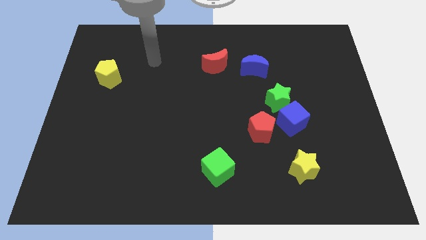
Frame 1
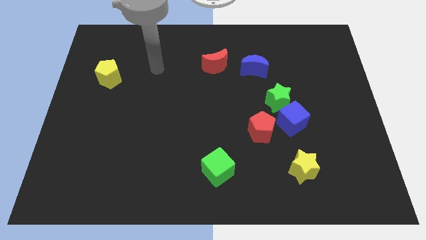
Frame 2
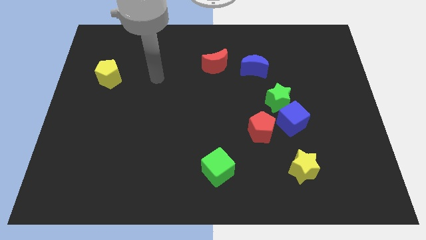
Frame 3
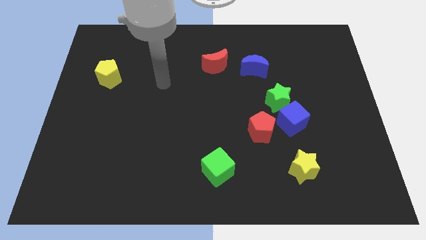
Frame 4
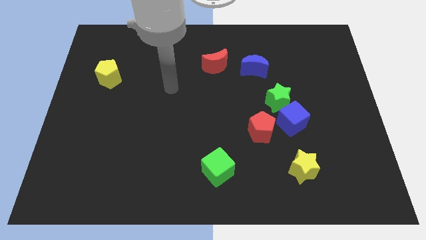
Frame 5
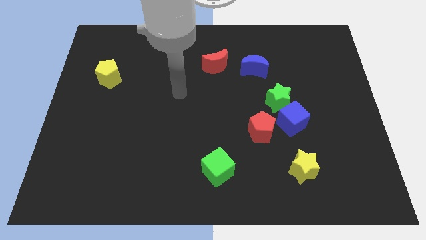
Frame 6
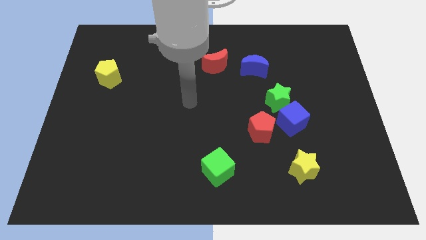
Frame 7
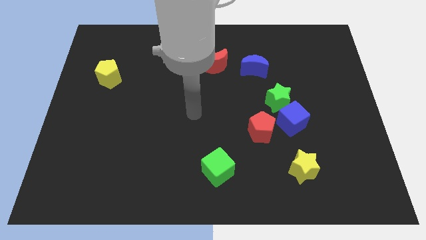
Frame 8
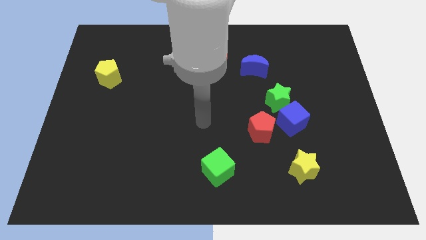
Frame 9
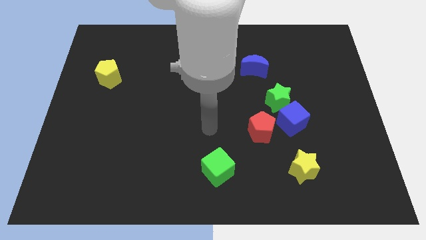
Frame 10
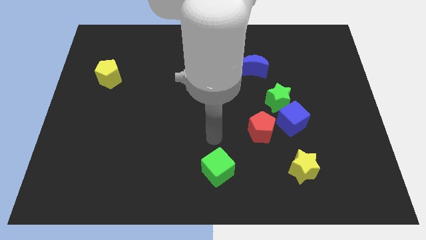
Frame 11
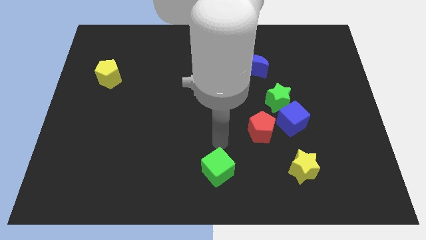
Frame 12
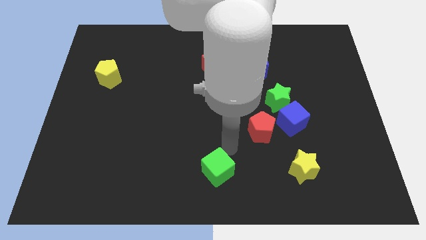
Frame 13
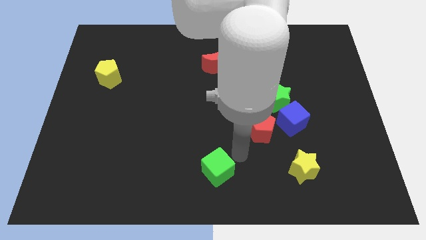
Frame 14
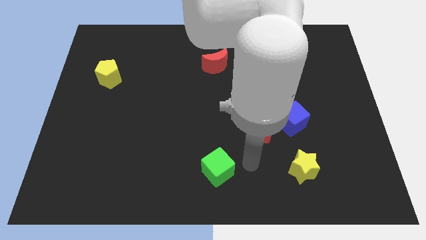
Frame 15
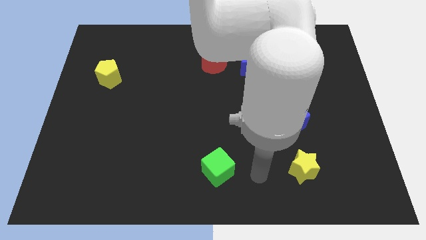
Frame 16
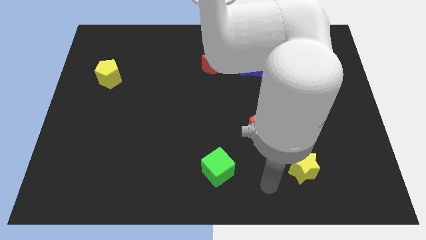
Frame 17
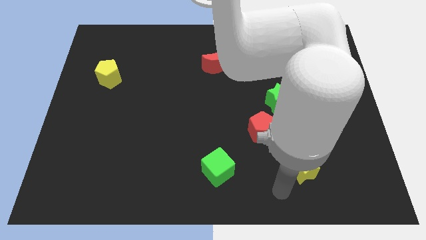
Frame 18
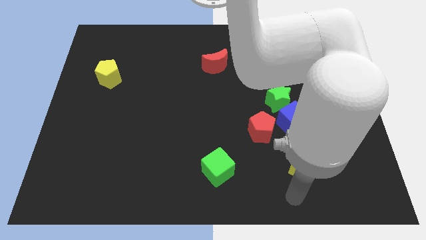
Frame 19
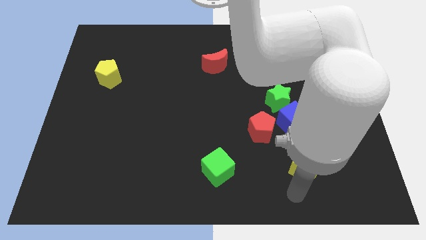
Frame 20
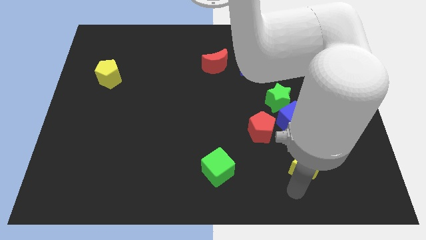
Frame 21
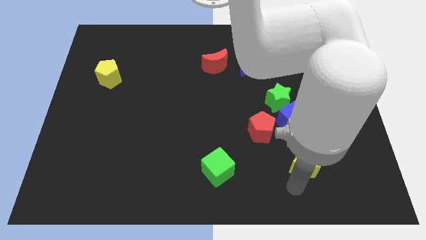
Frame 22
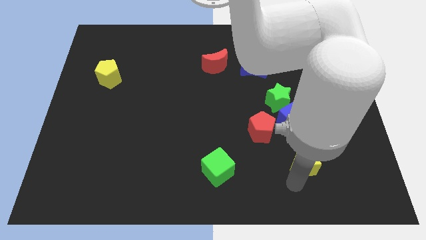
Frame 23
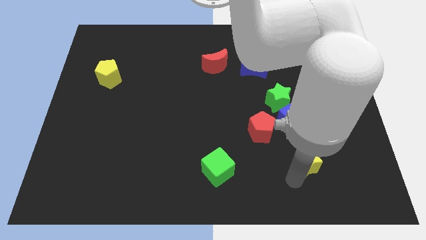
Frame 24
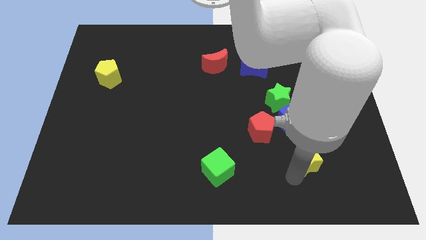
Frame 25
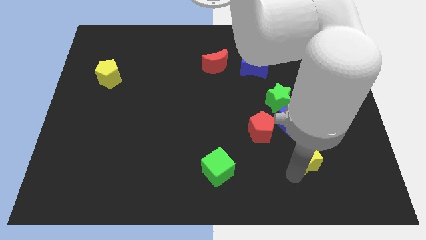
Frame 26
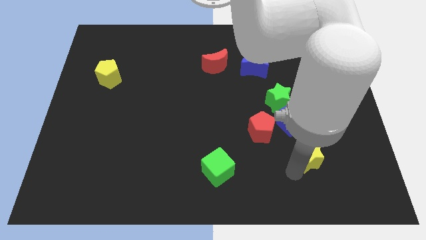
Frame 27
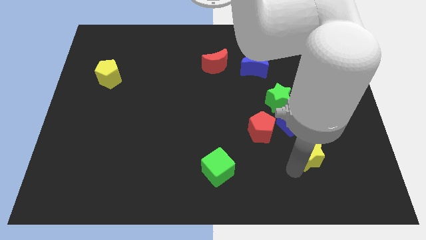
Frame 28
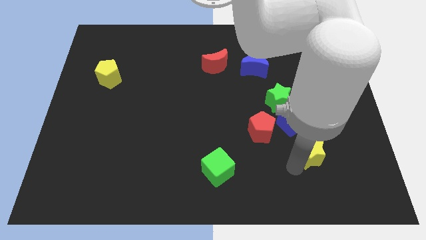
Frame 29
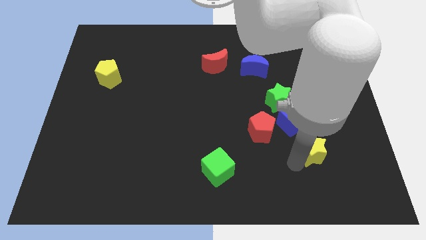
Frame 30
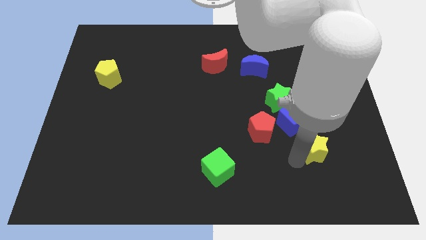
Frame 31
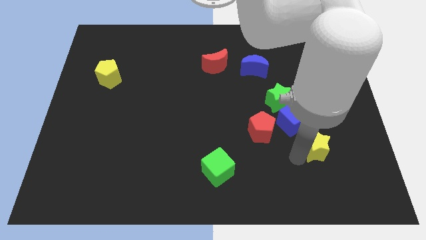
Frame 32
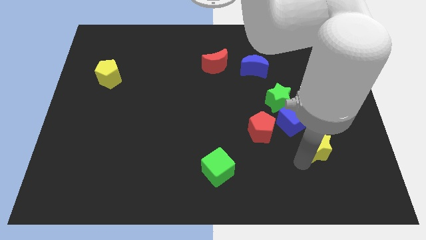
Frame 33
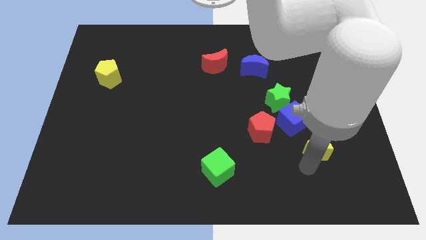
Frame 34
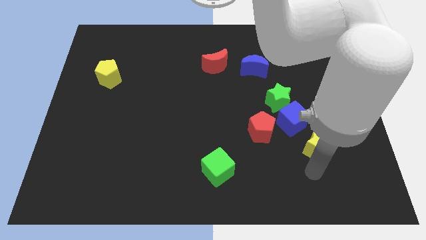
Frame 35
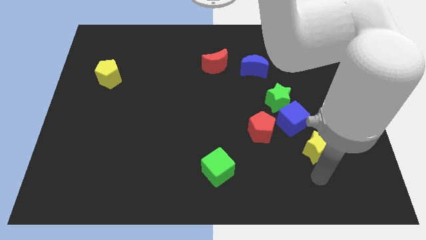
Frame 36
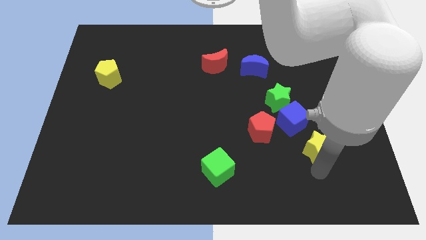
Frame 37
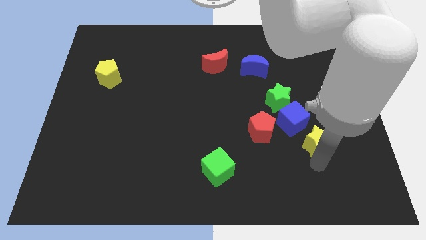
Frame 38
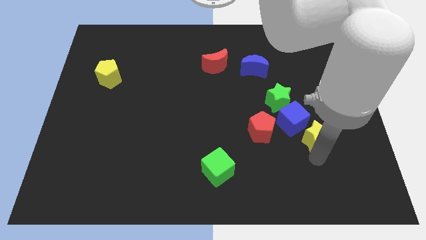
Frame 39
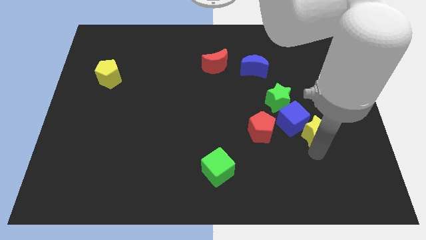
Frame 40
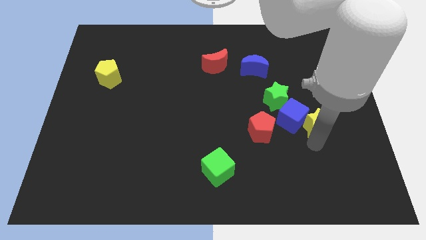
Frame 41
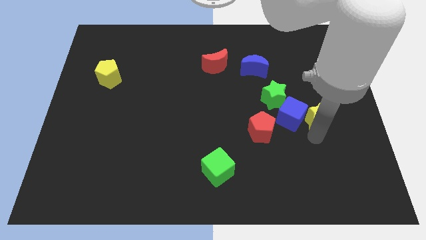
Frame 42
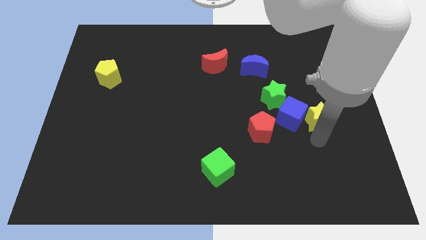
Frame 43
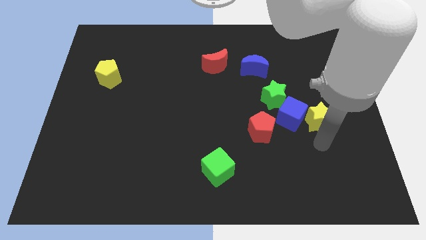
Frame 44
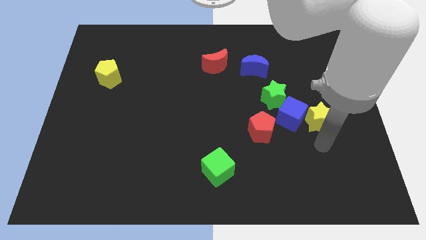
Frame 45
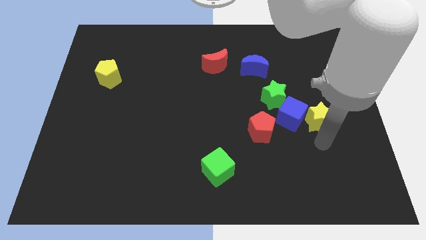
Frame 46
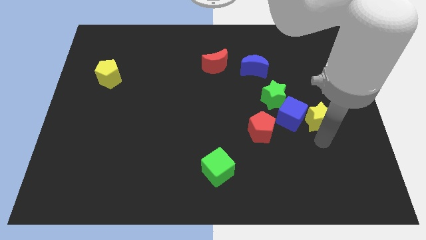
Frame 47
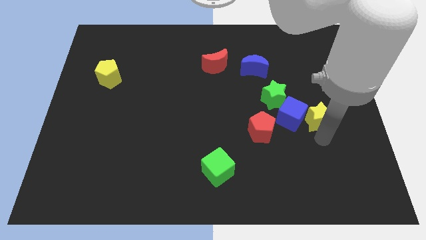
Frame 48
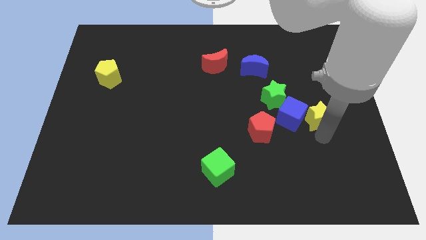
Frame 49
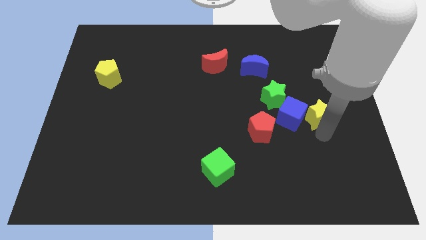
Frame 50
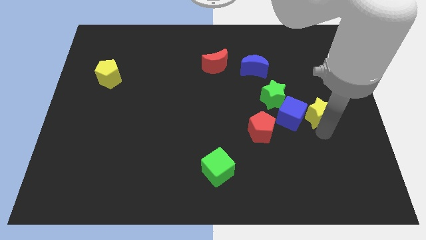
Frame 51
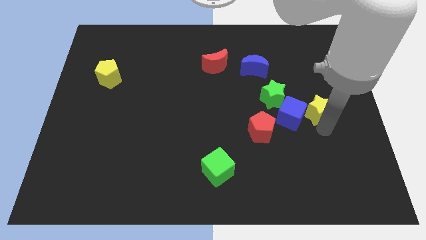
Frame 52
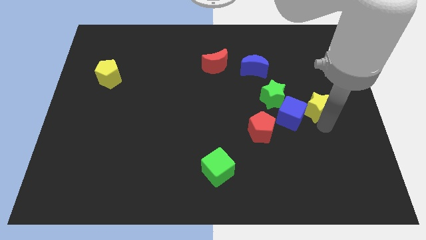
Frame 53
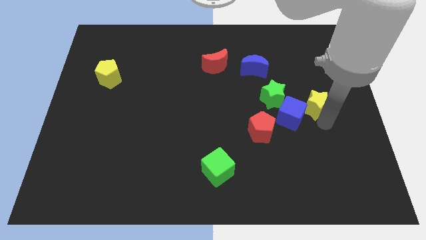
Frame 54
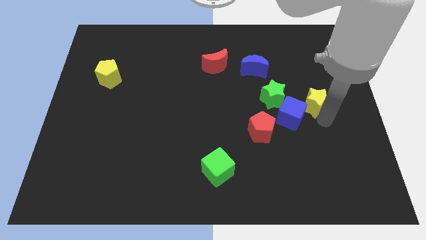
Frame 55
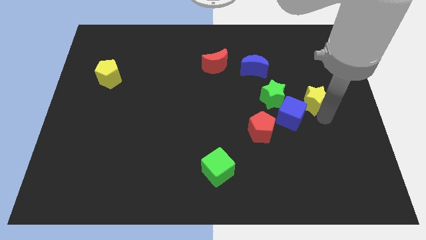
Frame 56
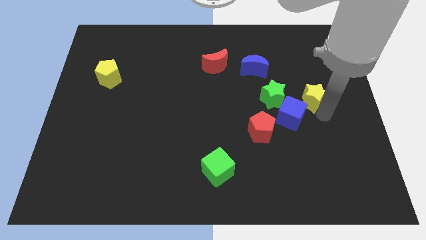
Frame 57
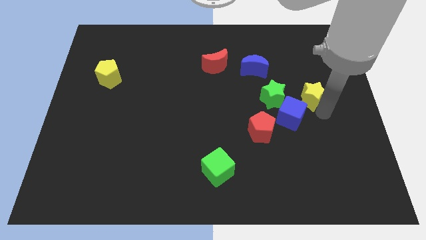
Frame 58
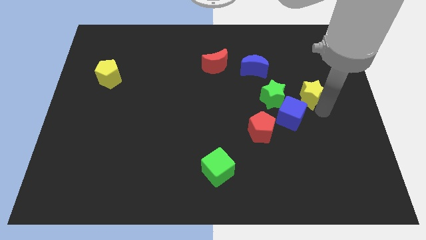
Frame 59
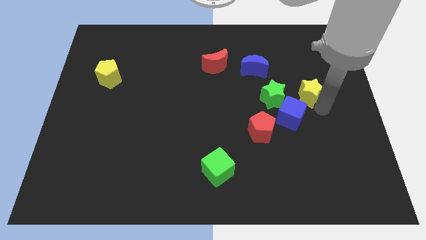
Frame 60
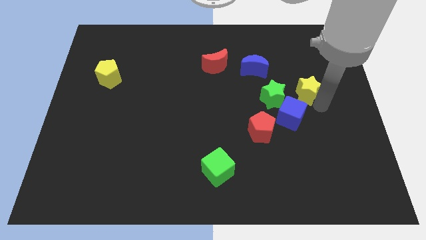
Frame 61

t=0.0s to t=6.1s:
push the yellow star upwards

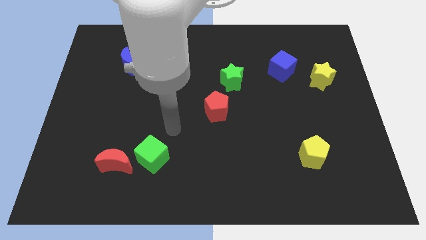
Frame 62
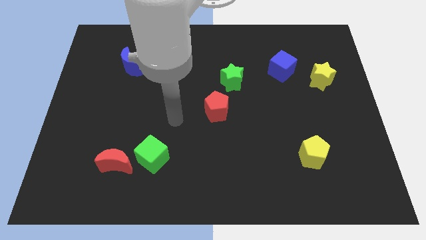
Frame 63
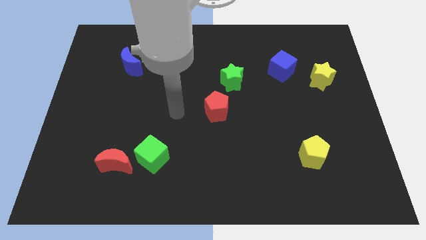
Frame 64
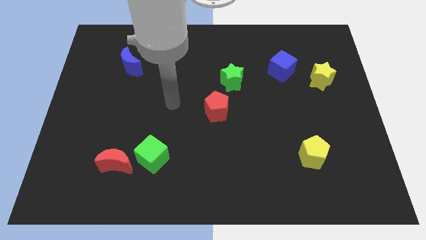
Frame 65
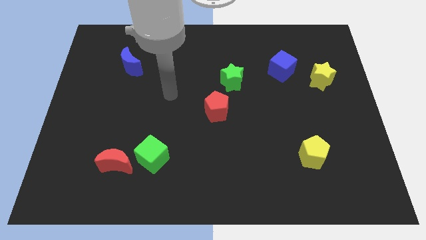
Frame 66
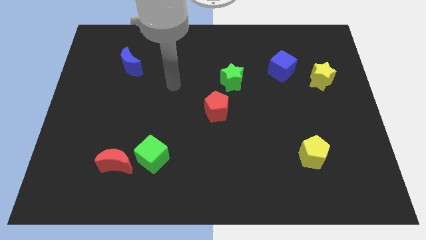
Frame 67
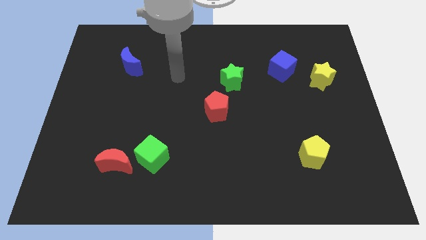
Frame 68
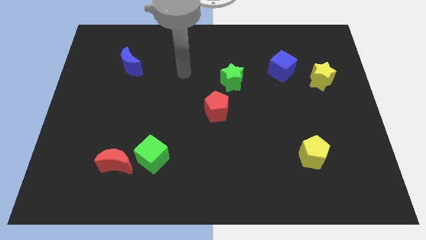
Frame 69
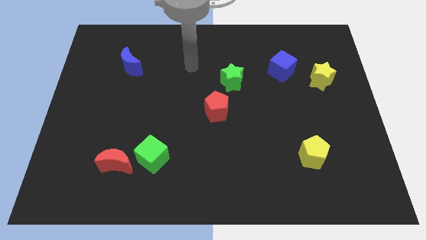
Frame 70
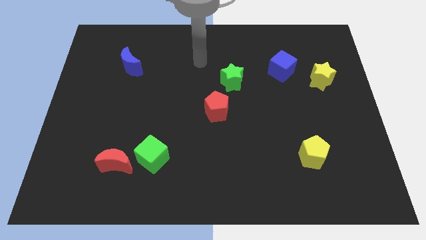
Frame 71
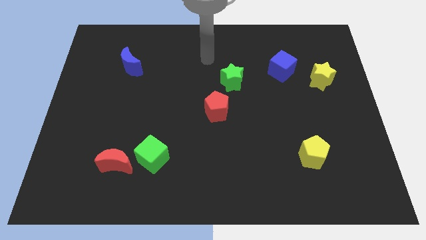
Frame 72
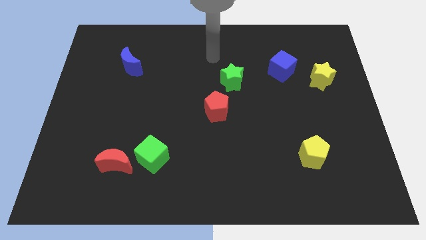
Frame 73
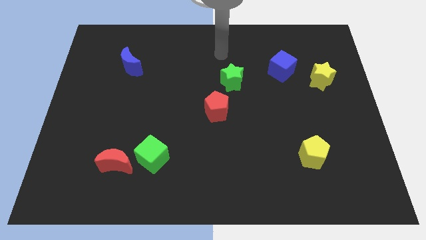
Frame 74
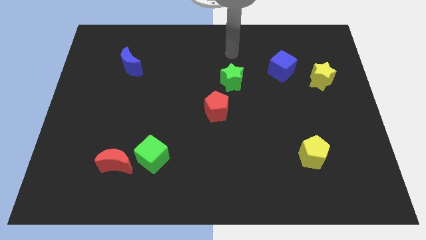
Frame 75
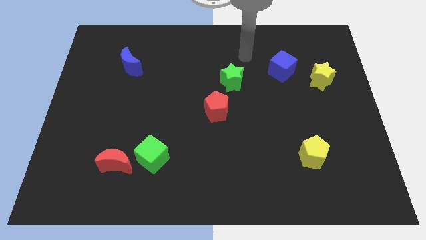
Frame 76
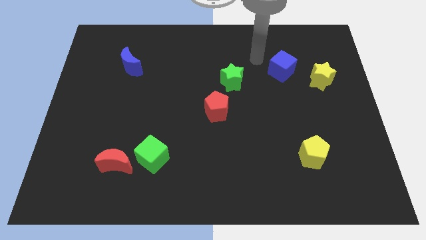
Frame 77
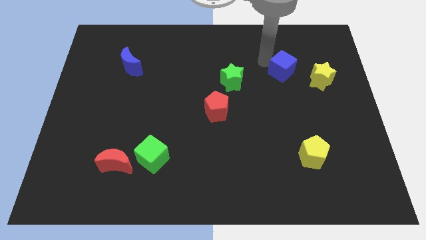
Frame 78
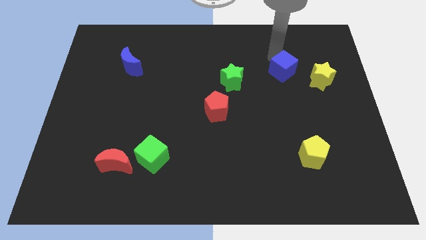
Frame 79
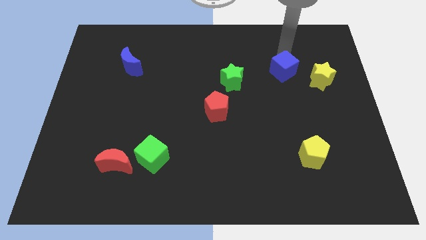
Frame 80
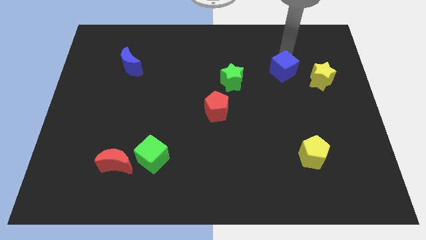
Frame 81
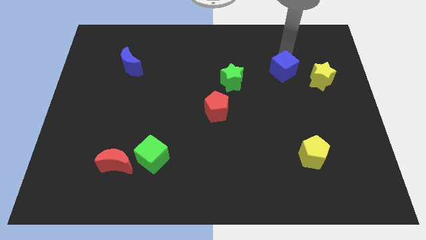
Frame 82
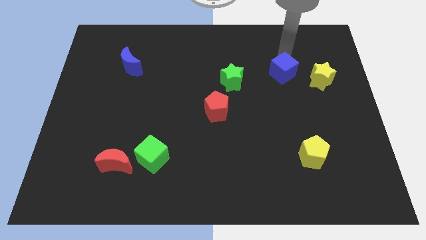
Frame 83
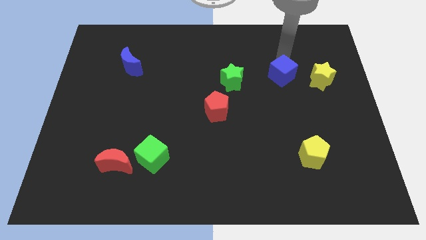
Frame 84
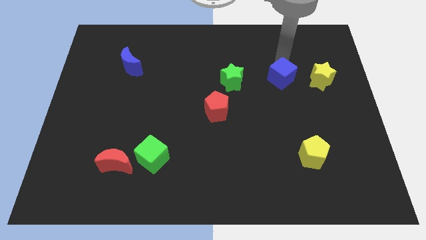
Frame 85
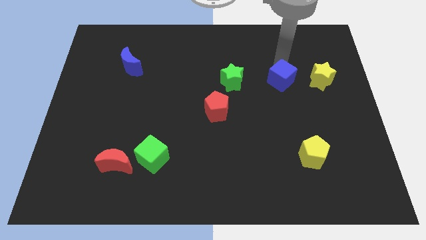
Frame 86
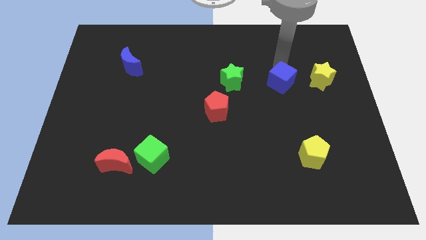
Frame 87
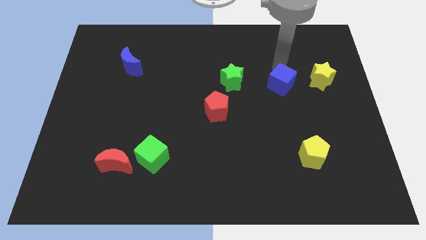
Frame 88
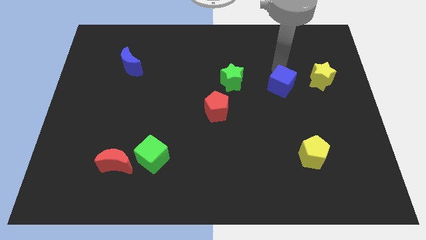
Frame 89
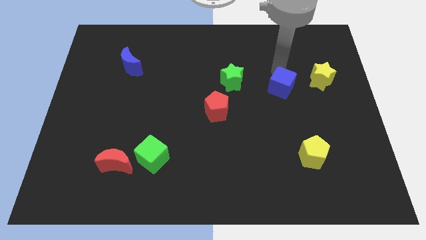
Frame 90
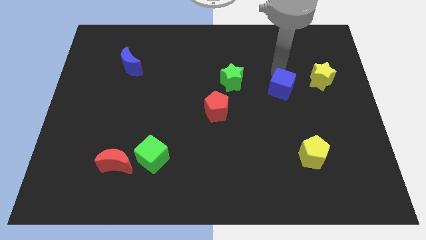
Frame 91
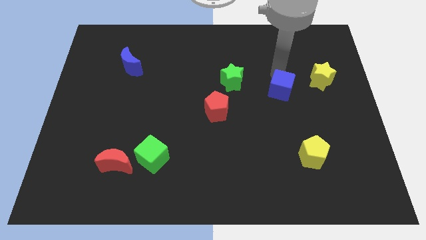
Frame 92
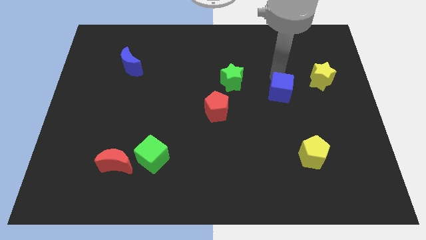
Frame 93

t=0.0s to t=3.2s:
push the blue cube down a little
